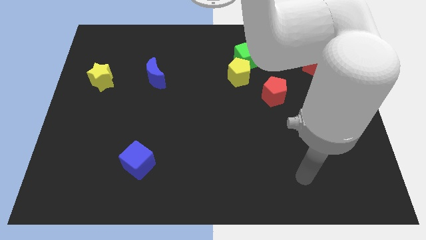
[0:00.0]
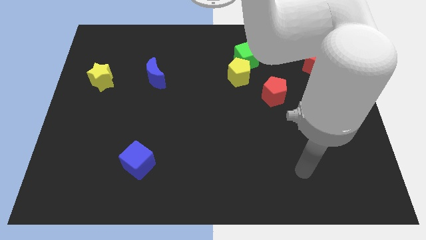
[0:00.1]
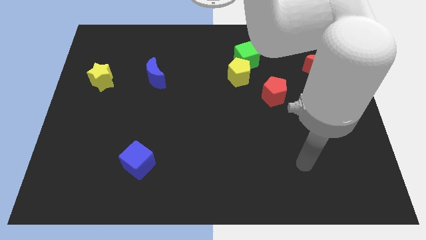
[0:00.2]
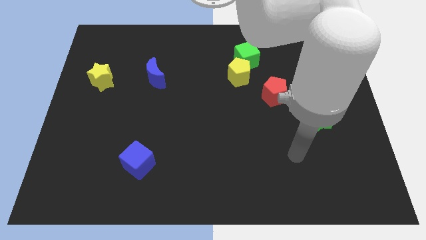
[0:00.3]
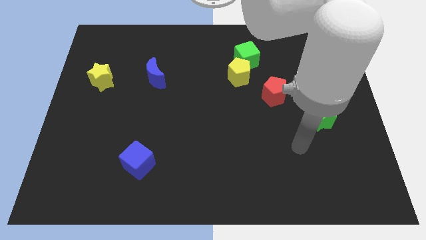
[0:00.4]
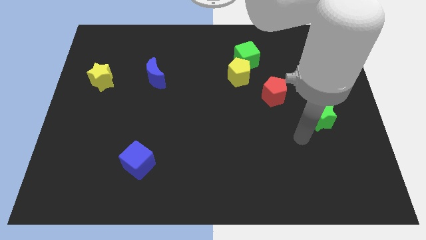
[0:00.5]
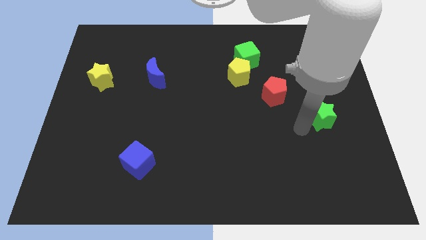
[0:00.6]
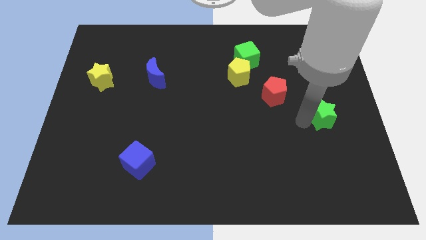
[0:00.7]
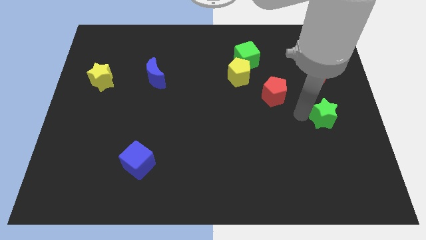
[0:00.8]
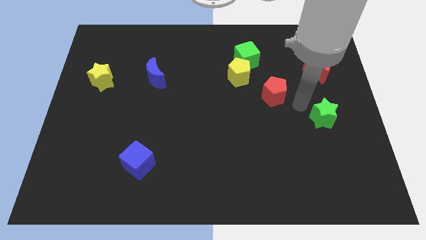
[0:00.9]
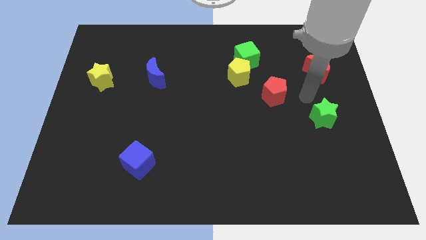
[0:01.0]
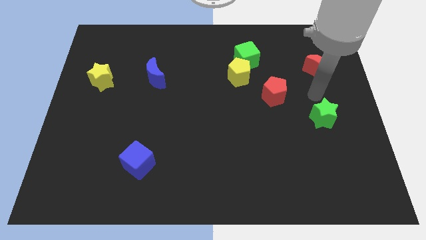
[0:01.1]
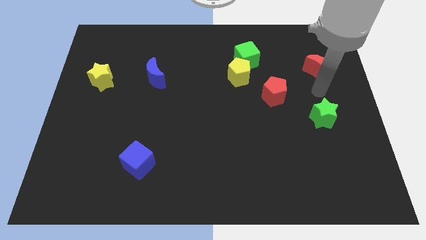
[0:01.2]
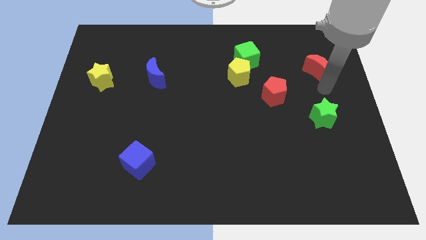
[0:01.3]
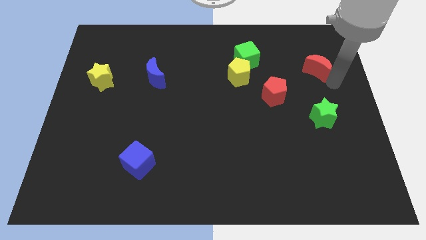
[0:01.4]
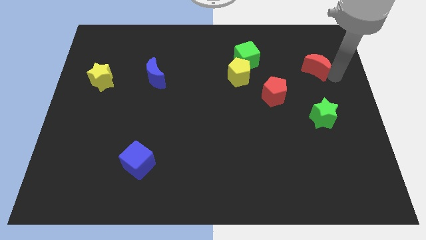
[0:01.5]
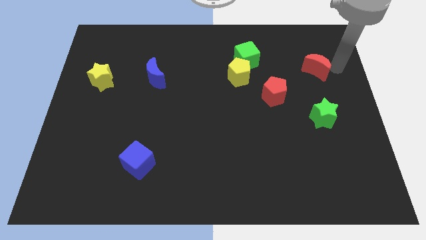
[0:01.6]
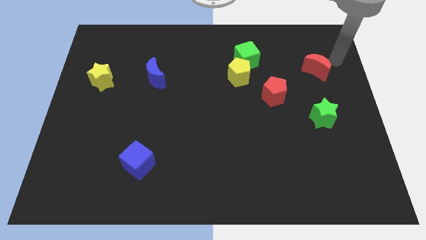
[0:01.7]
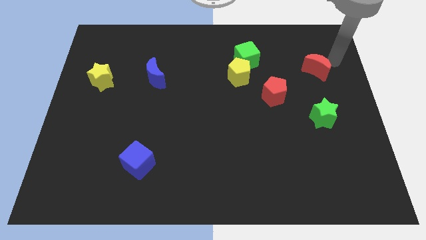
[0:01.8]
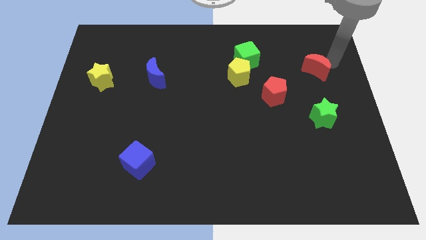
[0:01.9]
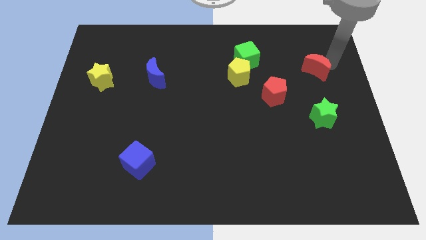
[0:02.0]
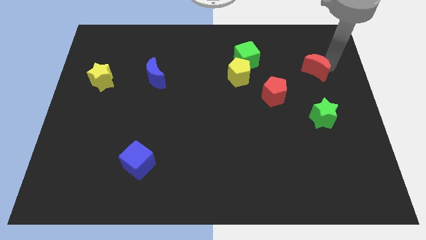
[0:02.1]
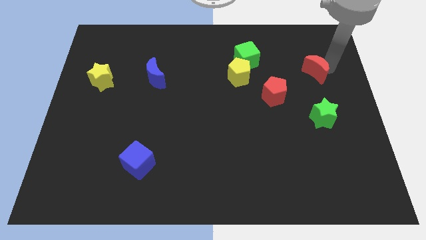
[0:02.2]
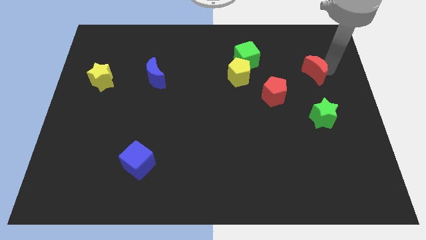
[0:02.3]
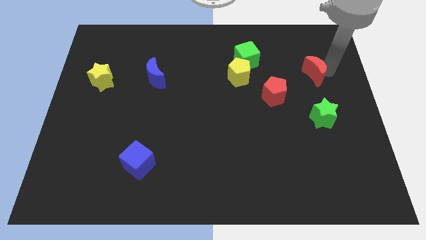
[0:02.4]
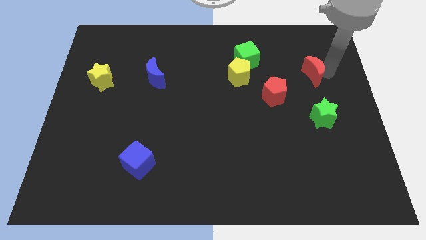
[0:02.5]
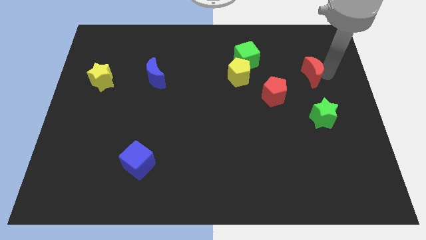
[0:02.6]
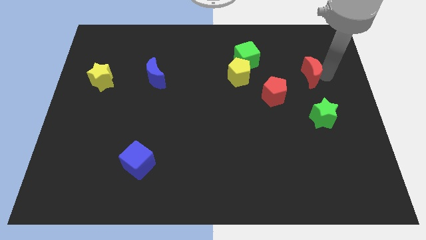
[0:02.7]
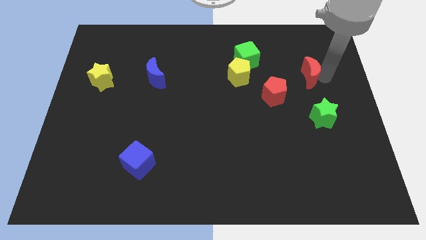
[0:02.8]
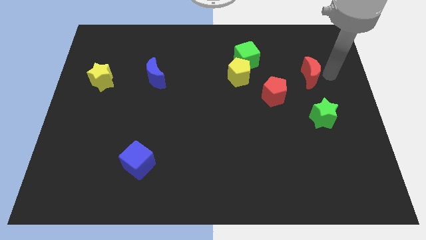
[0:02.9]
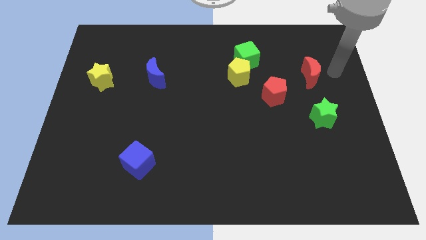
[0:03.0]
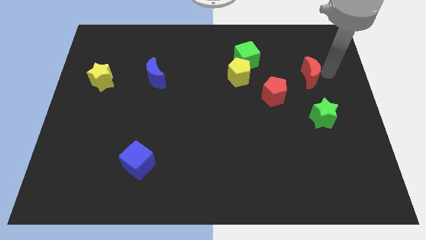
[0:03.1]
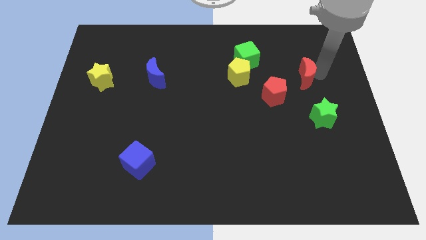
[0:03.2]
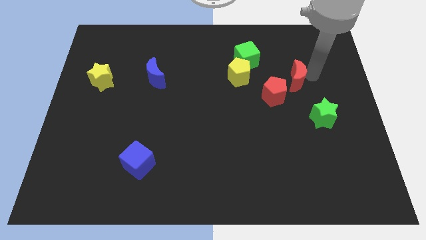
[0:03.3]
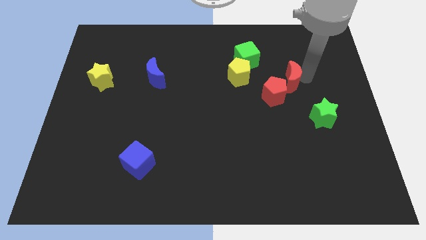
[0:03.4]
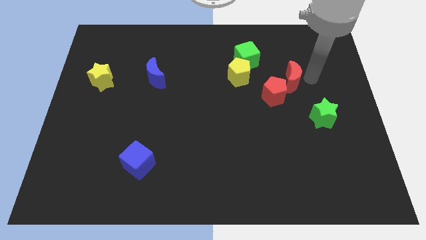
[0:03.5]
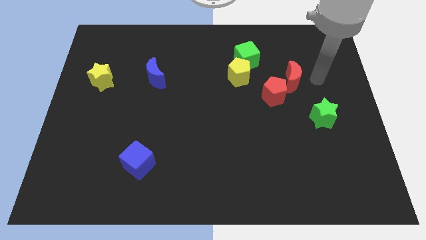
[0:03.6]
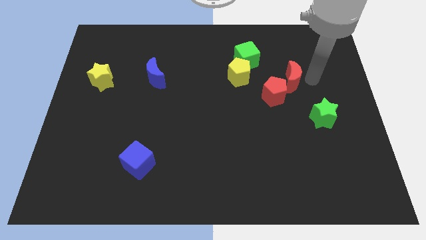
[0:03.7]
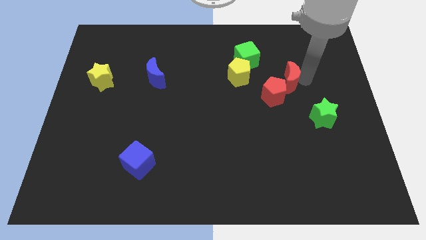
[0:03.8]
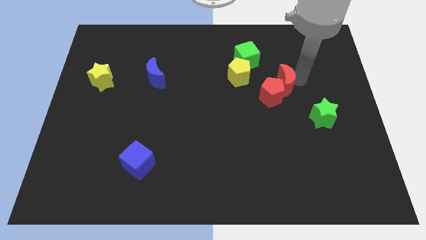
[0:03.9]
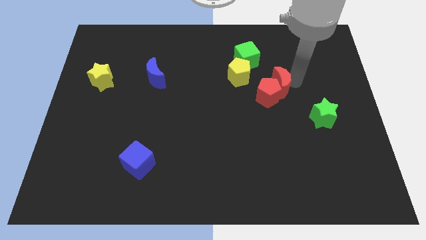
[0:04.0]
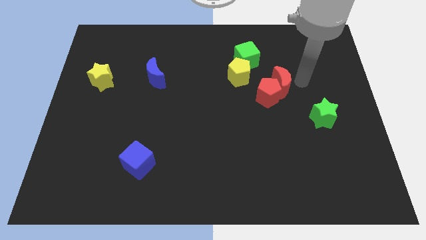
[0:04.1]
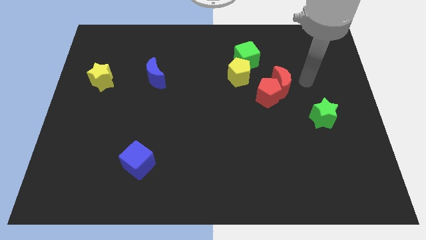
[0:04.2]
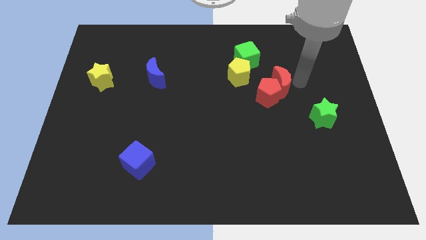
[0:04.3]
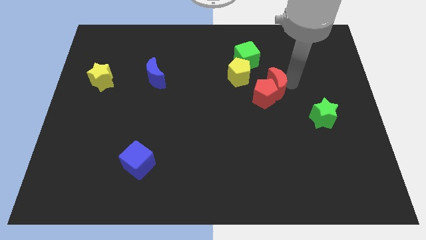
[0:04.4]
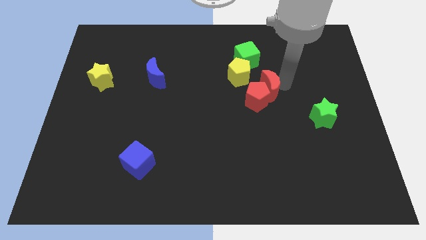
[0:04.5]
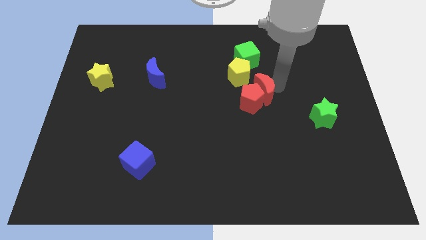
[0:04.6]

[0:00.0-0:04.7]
slide the red moon to the bottom side of the green cube

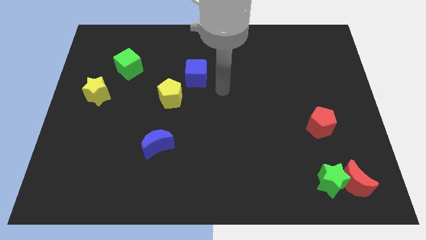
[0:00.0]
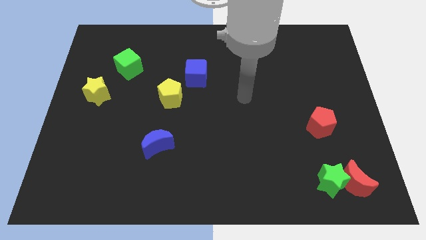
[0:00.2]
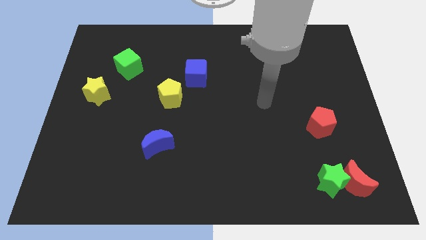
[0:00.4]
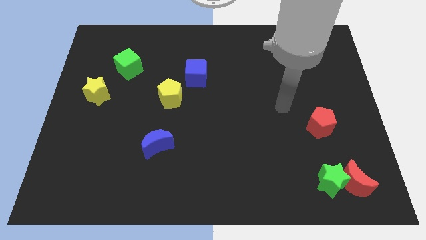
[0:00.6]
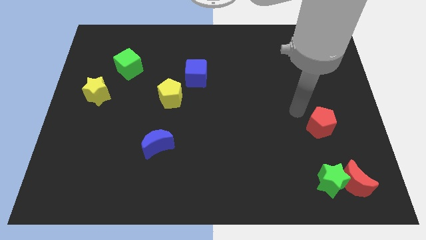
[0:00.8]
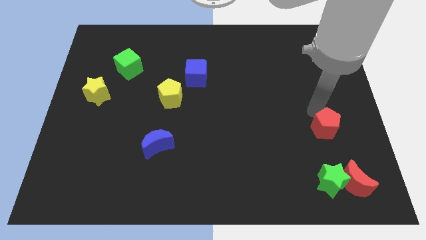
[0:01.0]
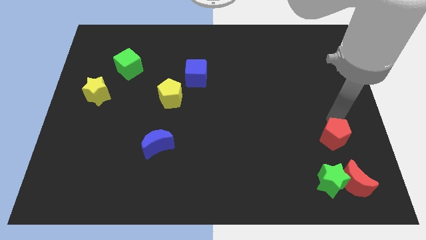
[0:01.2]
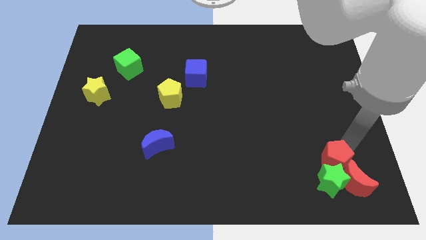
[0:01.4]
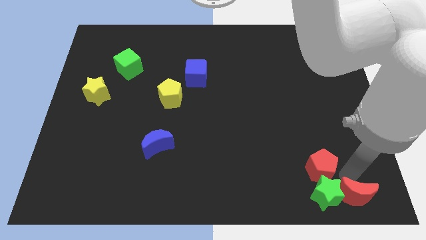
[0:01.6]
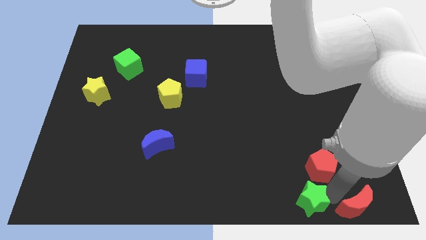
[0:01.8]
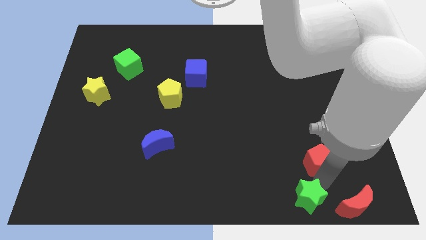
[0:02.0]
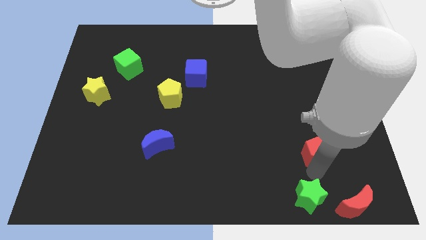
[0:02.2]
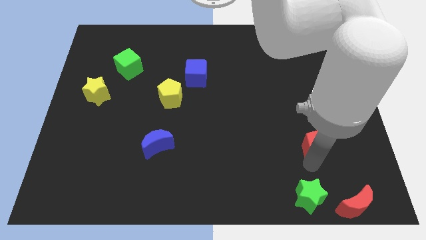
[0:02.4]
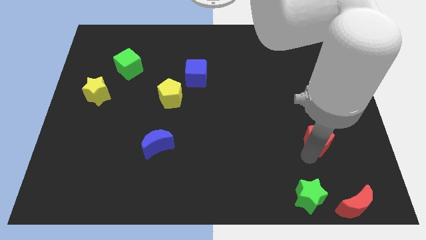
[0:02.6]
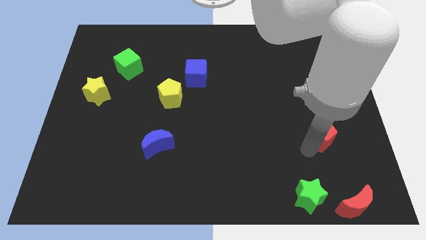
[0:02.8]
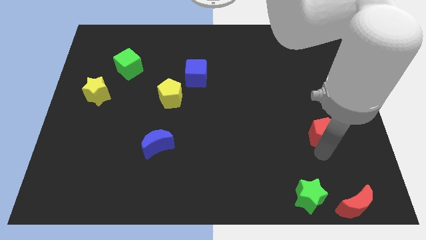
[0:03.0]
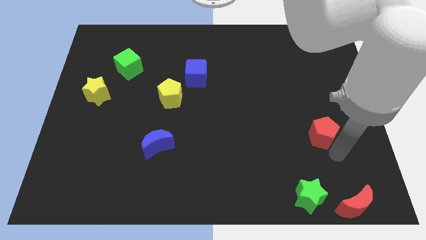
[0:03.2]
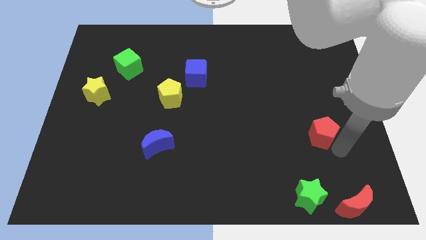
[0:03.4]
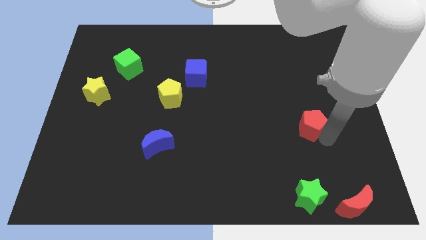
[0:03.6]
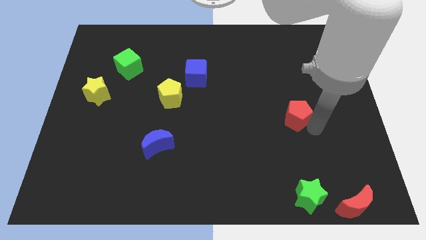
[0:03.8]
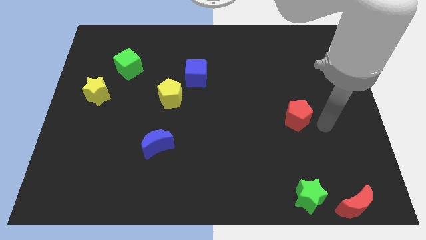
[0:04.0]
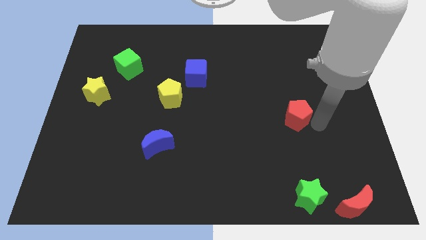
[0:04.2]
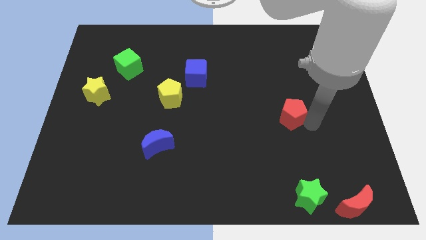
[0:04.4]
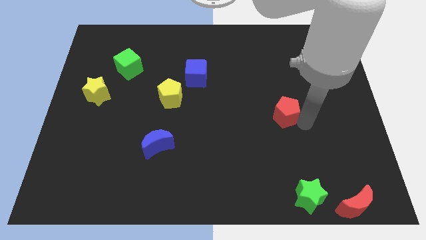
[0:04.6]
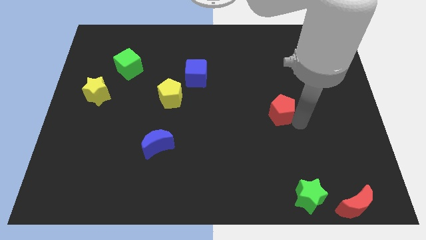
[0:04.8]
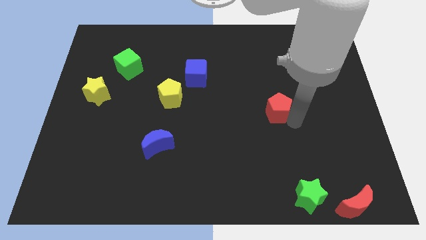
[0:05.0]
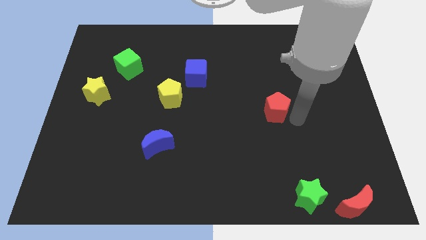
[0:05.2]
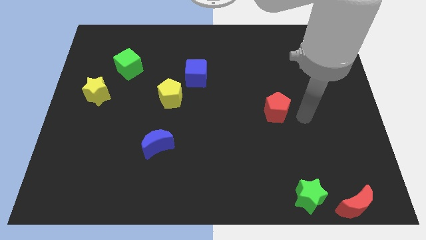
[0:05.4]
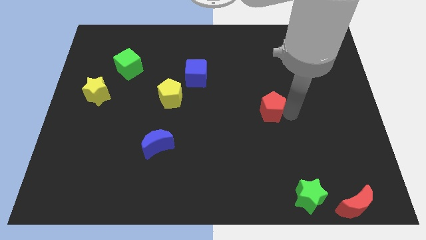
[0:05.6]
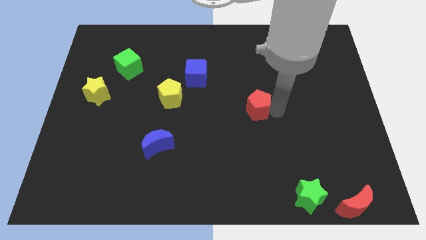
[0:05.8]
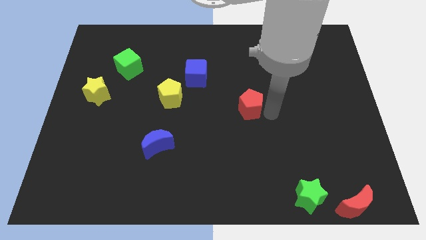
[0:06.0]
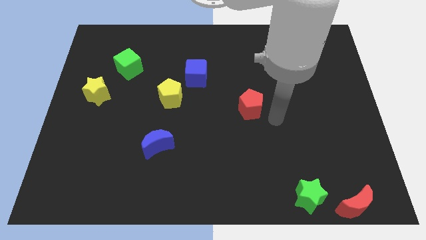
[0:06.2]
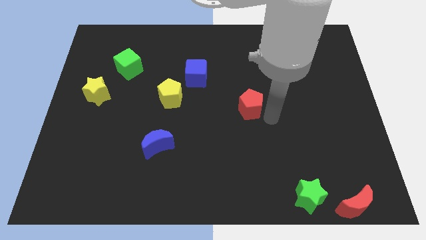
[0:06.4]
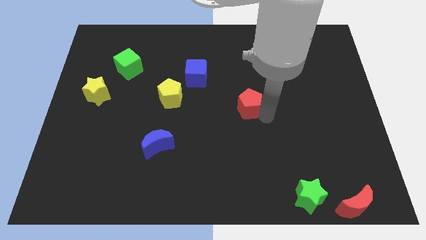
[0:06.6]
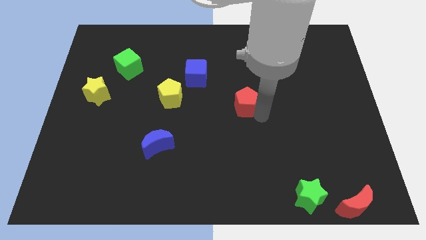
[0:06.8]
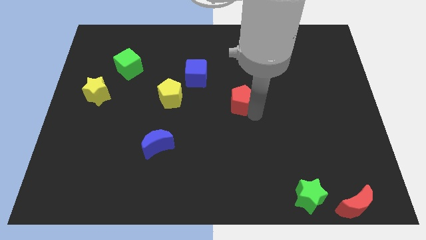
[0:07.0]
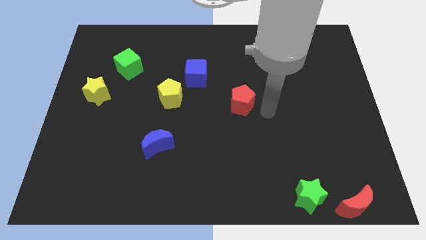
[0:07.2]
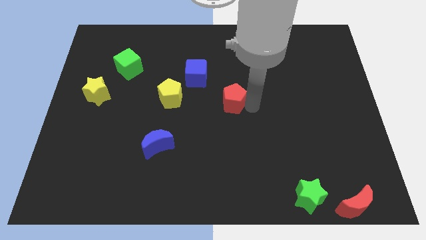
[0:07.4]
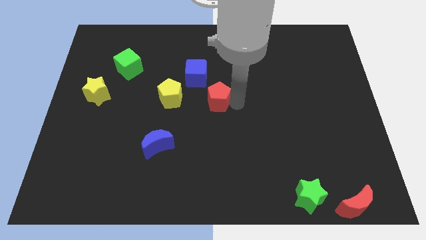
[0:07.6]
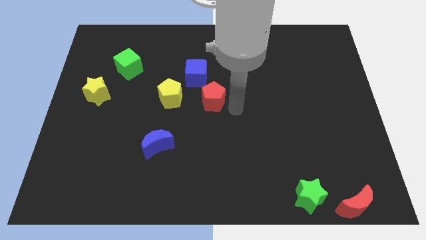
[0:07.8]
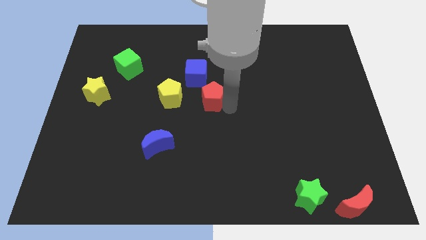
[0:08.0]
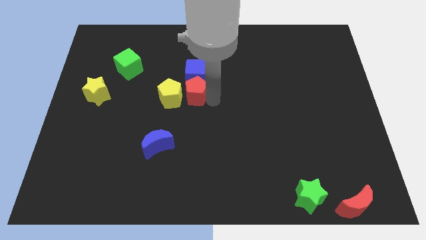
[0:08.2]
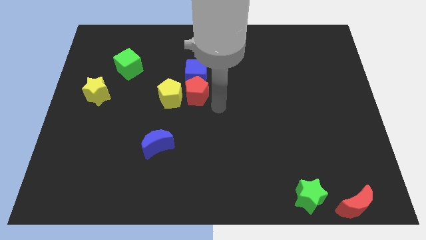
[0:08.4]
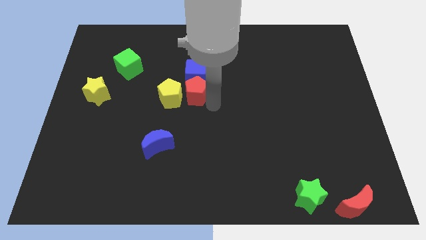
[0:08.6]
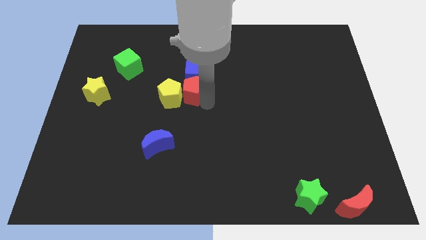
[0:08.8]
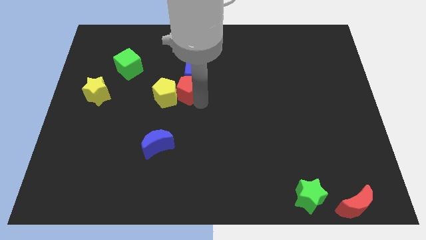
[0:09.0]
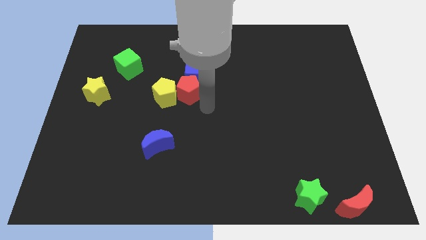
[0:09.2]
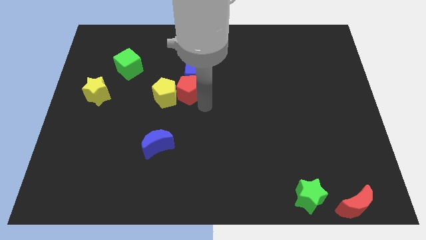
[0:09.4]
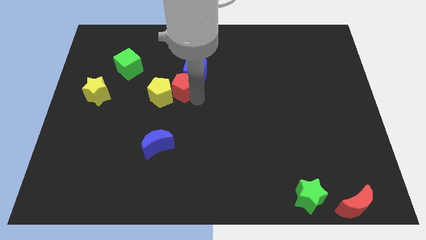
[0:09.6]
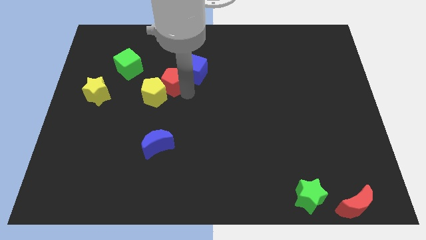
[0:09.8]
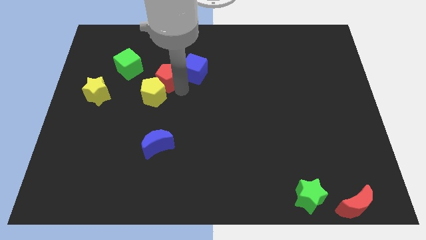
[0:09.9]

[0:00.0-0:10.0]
move the red pentagon diagonally down and to the right of the green cube
